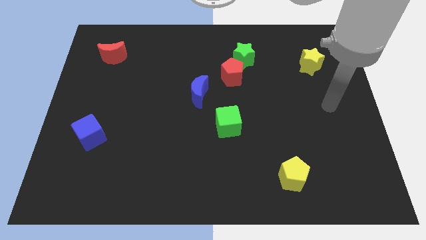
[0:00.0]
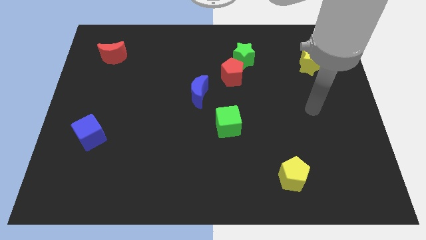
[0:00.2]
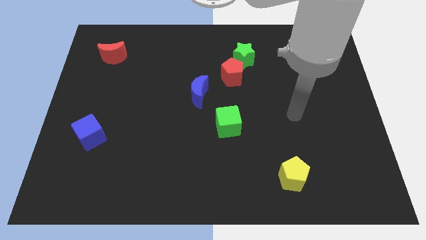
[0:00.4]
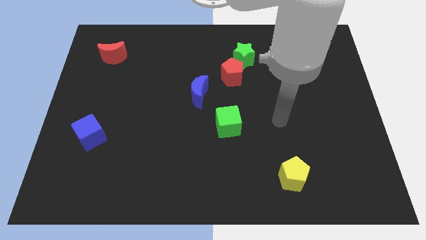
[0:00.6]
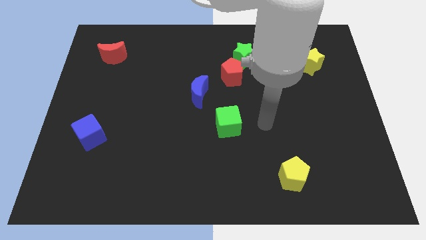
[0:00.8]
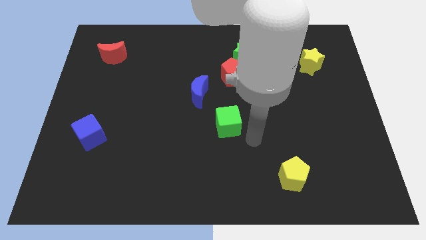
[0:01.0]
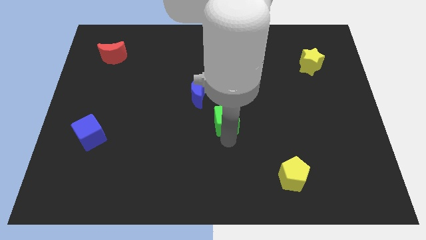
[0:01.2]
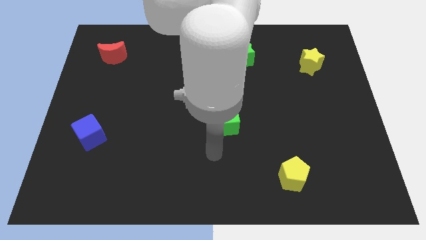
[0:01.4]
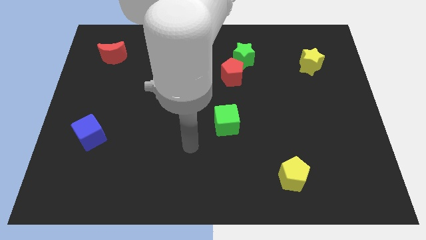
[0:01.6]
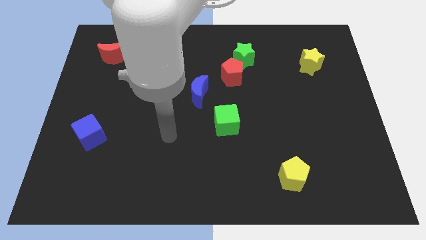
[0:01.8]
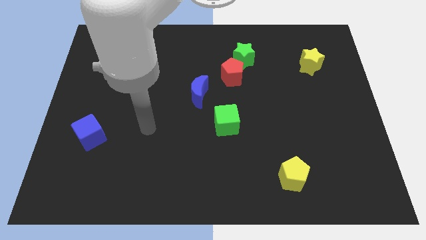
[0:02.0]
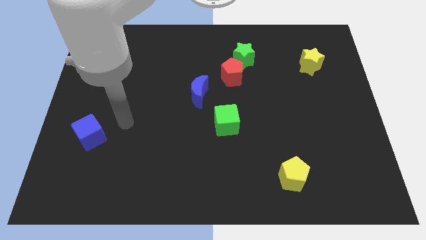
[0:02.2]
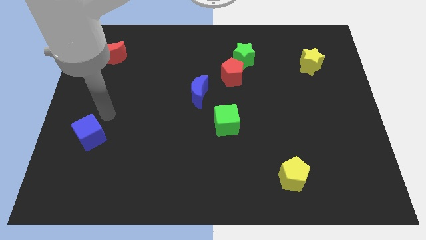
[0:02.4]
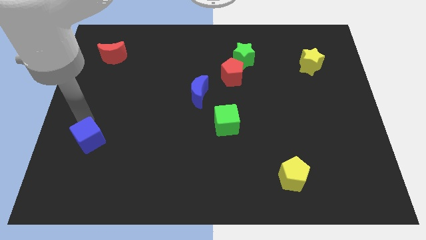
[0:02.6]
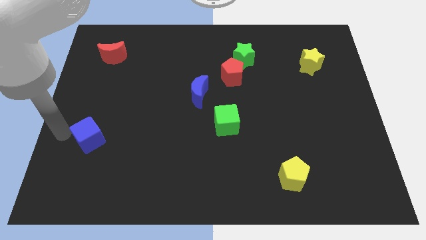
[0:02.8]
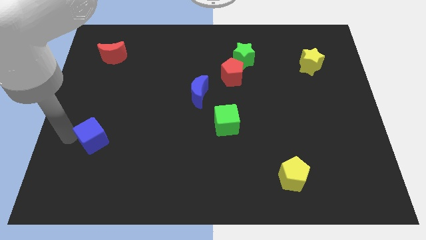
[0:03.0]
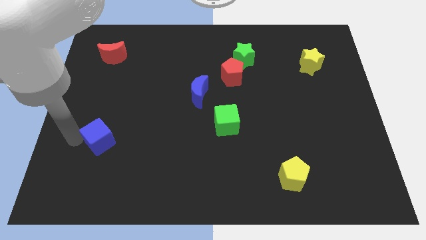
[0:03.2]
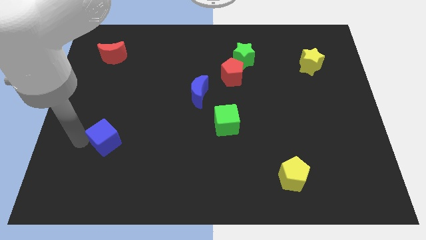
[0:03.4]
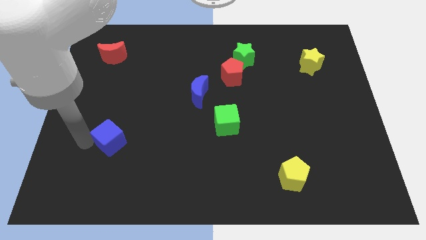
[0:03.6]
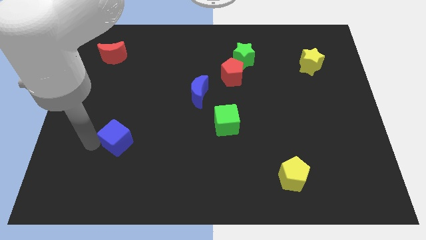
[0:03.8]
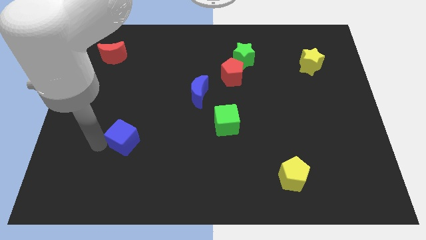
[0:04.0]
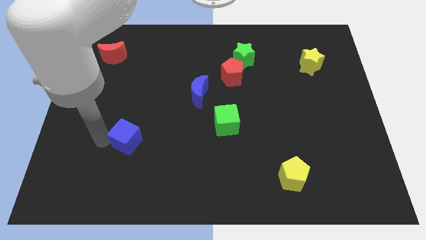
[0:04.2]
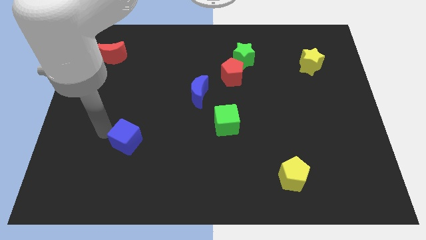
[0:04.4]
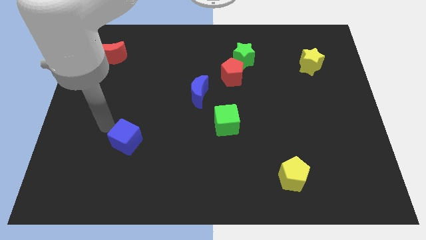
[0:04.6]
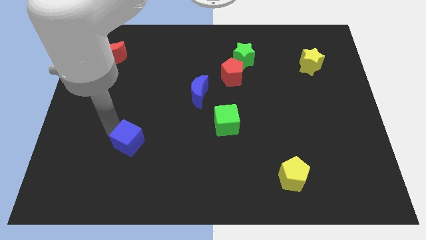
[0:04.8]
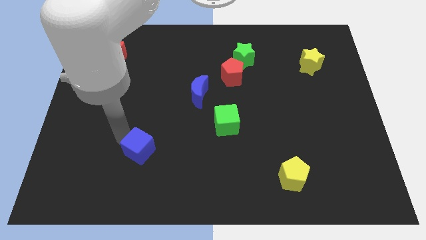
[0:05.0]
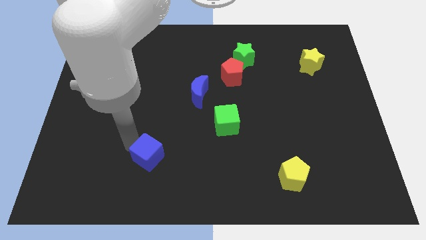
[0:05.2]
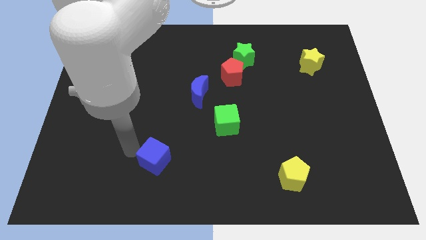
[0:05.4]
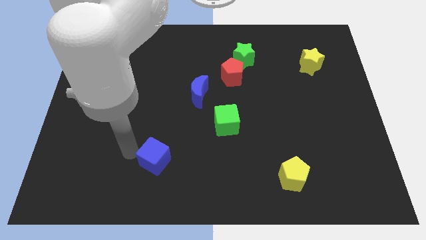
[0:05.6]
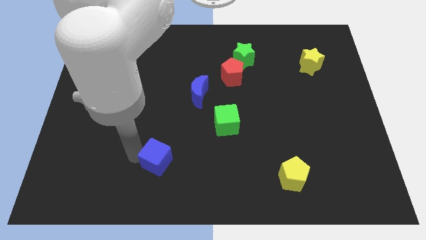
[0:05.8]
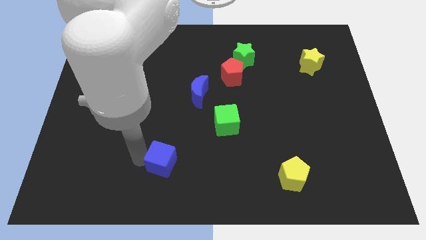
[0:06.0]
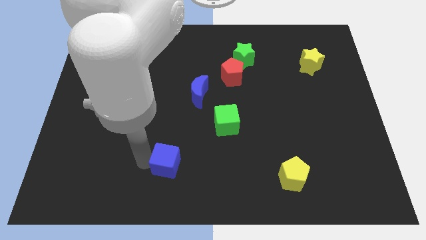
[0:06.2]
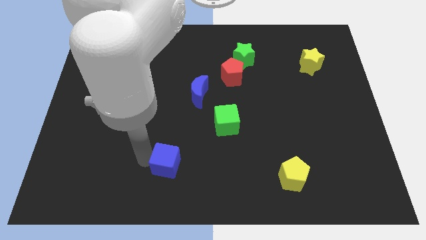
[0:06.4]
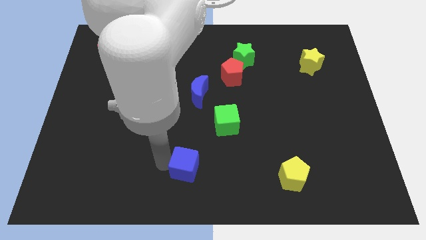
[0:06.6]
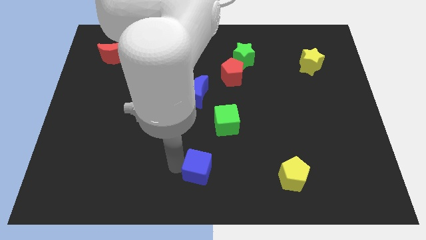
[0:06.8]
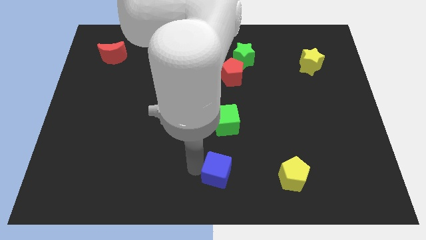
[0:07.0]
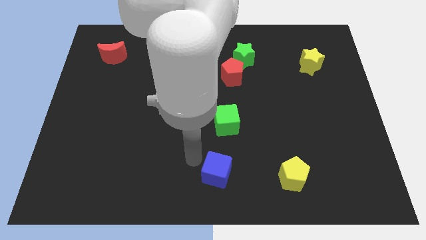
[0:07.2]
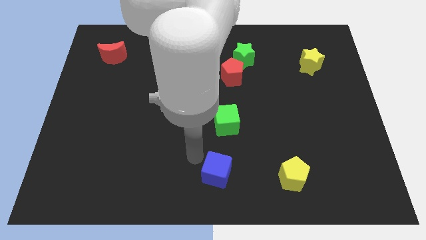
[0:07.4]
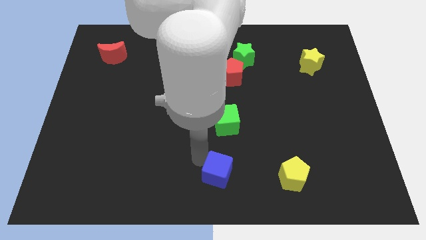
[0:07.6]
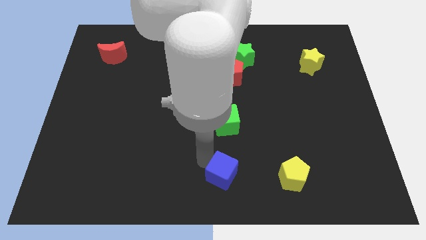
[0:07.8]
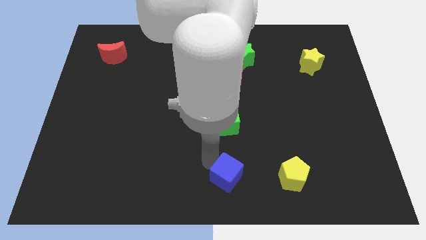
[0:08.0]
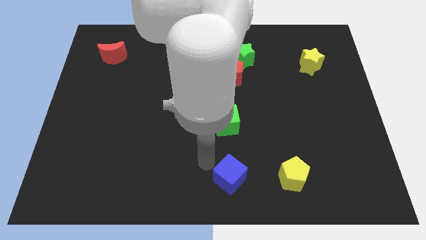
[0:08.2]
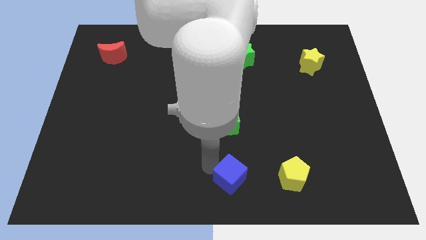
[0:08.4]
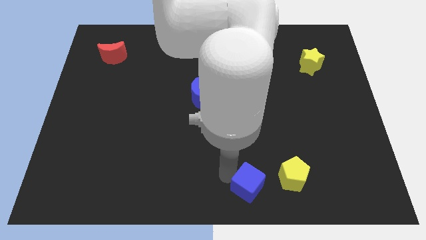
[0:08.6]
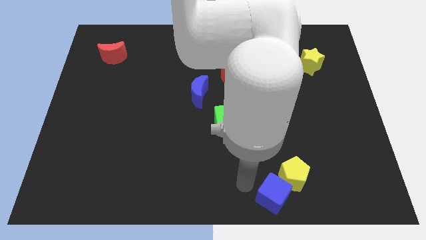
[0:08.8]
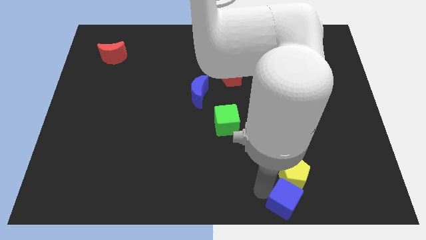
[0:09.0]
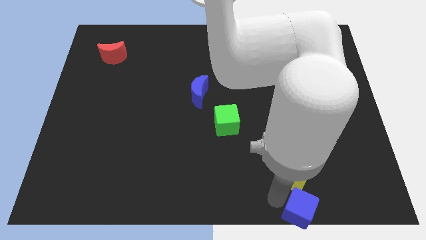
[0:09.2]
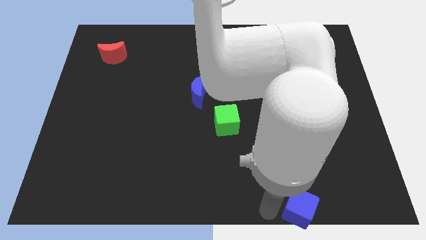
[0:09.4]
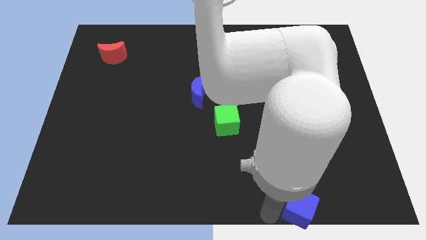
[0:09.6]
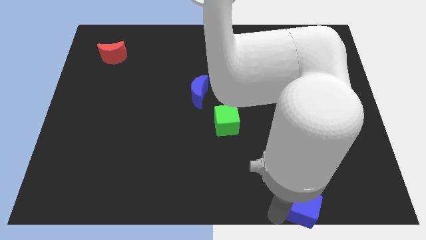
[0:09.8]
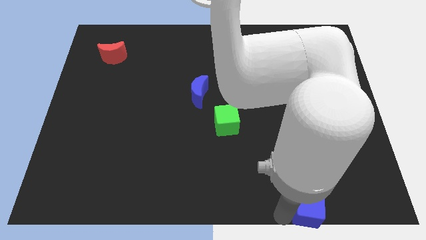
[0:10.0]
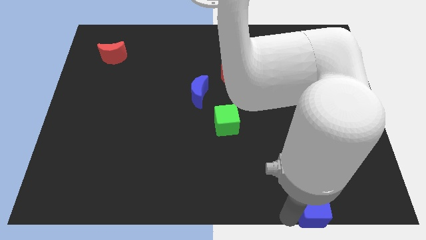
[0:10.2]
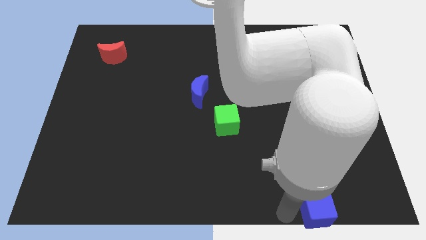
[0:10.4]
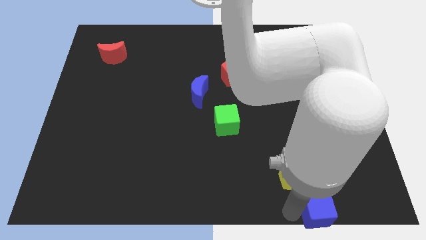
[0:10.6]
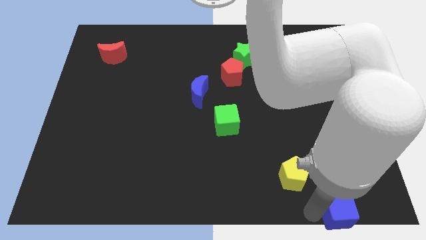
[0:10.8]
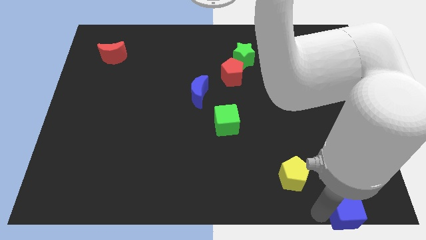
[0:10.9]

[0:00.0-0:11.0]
put the blue cube to the bottom right

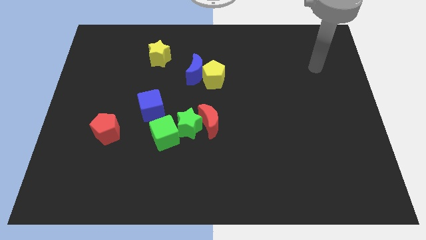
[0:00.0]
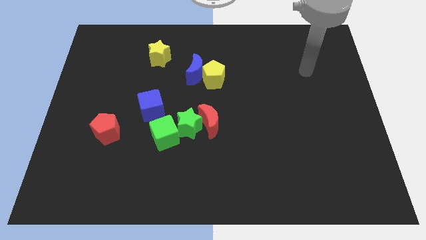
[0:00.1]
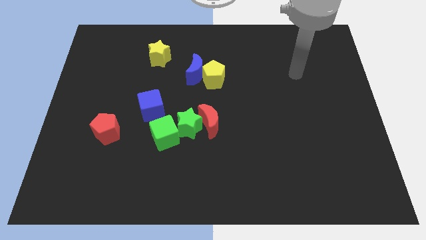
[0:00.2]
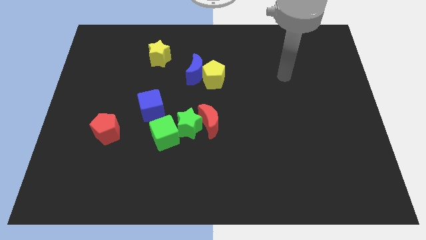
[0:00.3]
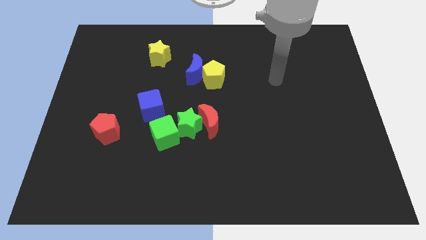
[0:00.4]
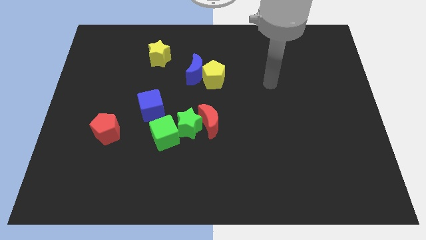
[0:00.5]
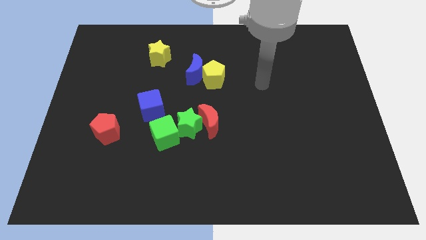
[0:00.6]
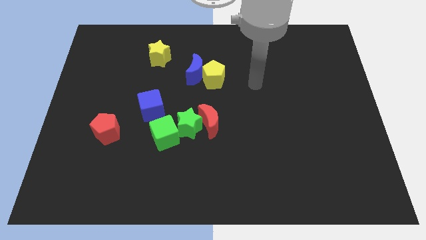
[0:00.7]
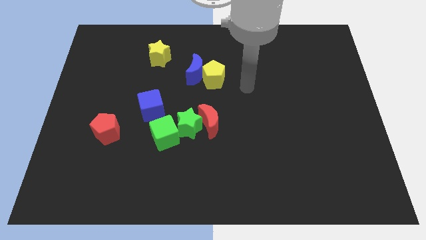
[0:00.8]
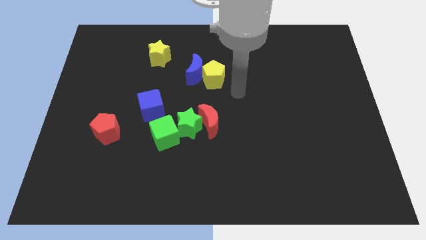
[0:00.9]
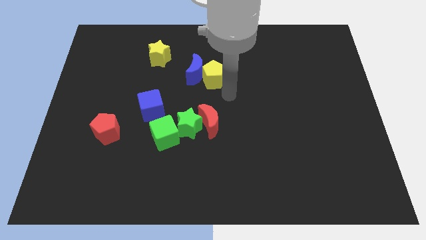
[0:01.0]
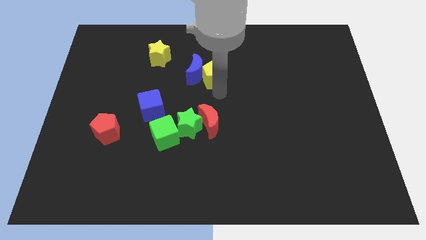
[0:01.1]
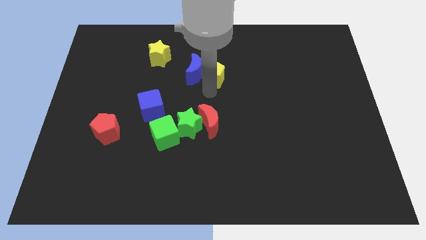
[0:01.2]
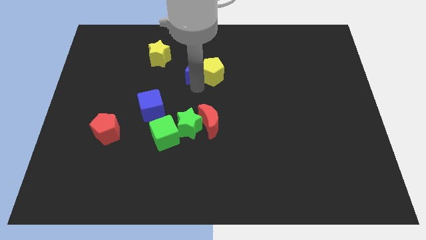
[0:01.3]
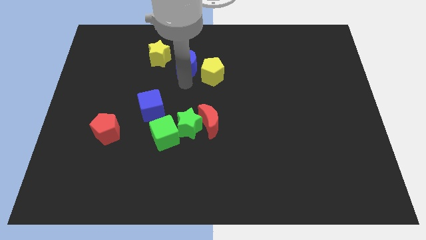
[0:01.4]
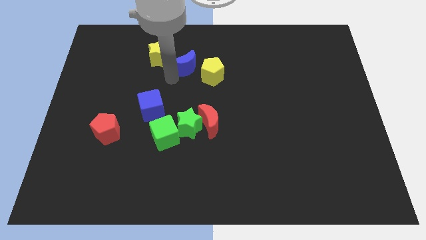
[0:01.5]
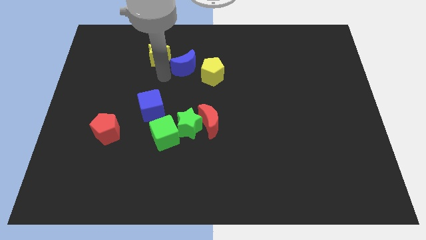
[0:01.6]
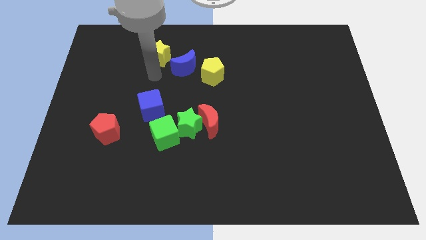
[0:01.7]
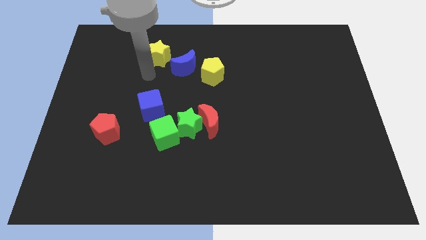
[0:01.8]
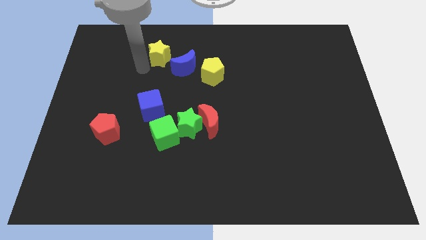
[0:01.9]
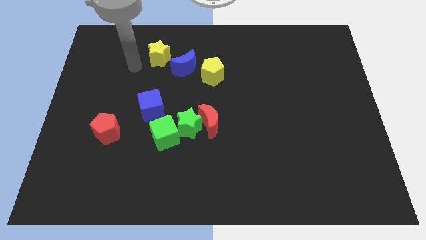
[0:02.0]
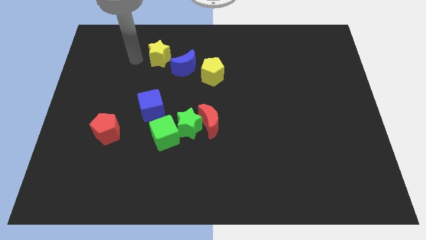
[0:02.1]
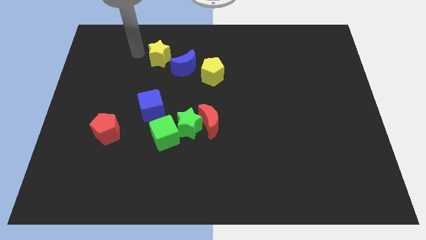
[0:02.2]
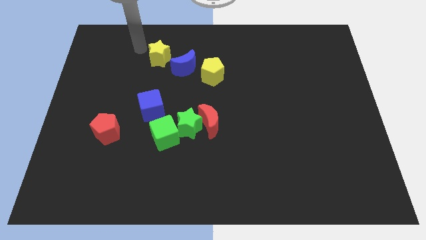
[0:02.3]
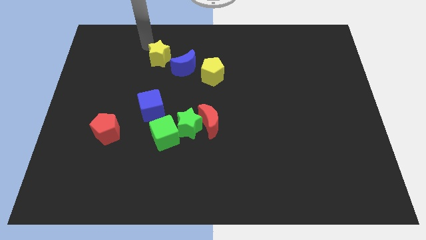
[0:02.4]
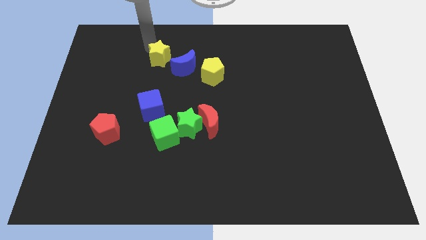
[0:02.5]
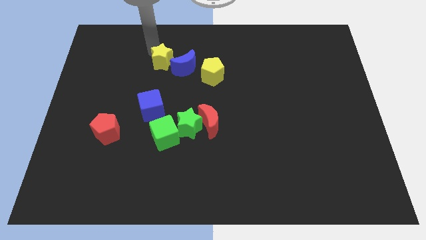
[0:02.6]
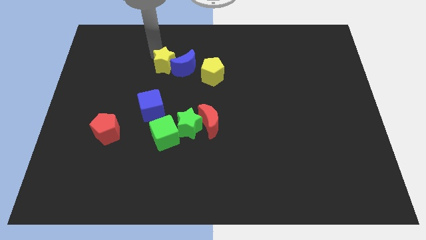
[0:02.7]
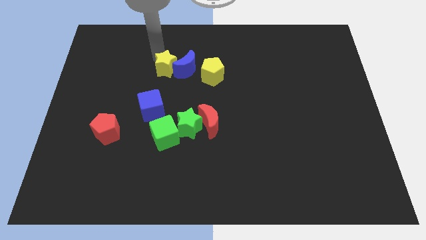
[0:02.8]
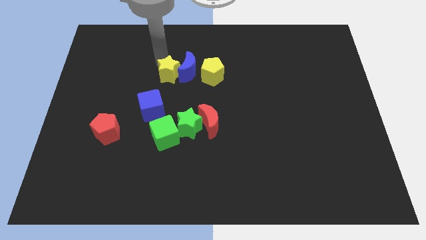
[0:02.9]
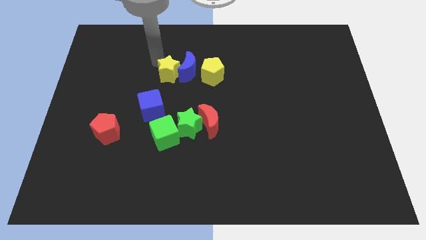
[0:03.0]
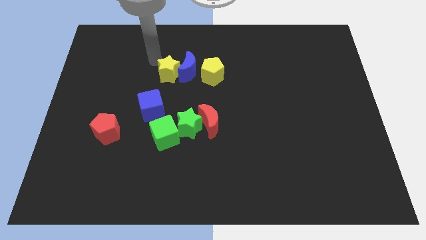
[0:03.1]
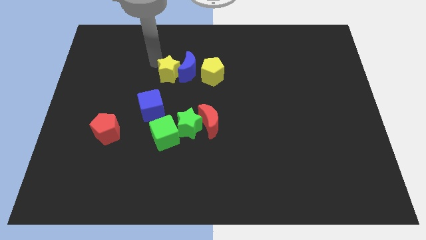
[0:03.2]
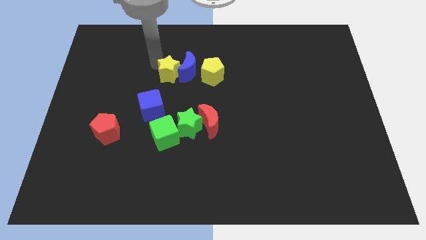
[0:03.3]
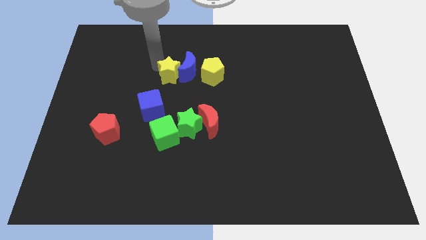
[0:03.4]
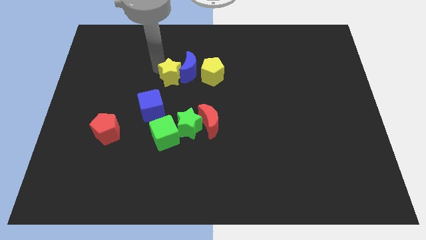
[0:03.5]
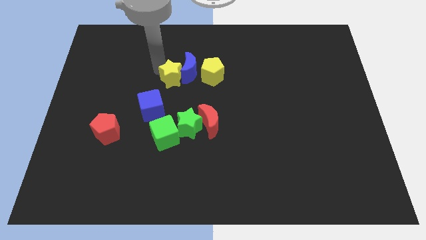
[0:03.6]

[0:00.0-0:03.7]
put the yellow star to the center
